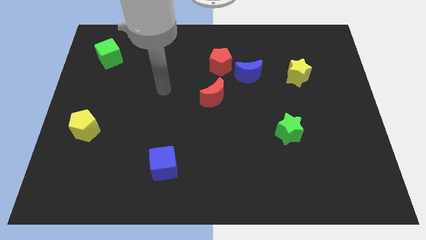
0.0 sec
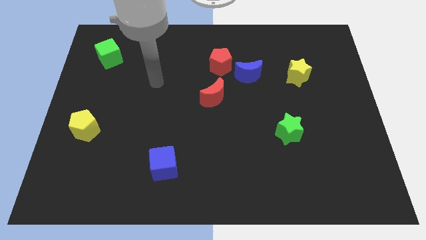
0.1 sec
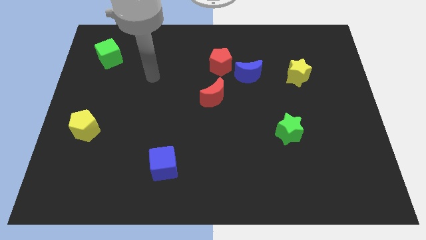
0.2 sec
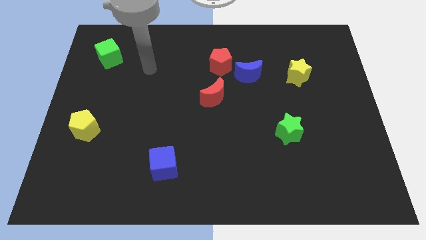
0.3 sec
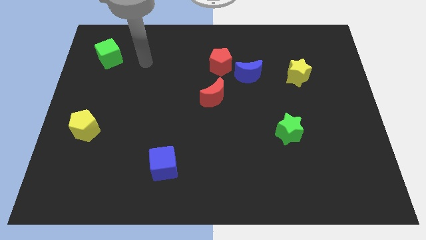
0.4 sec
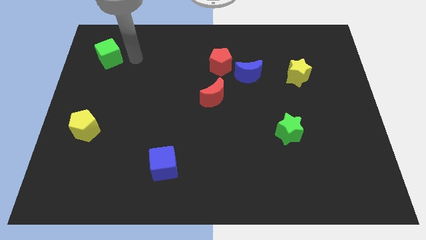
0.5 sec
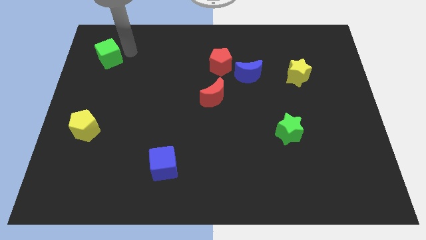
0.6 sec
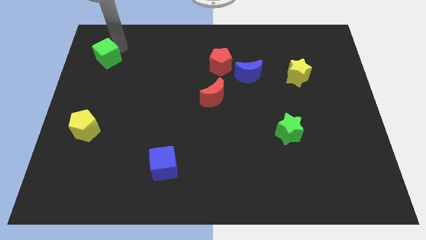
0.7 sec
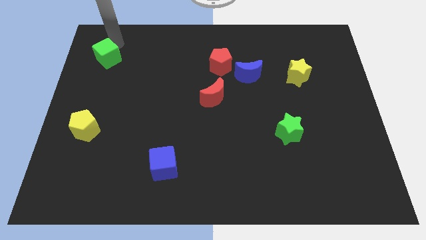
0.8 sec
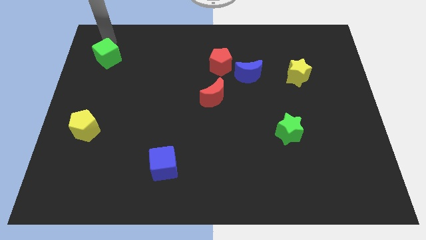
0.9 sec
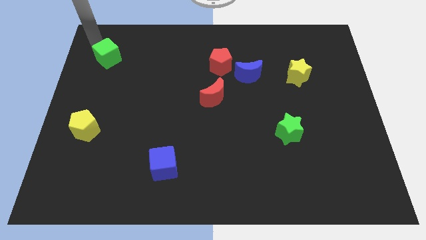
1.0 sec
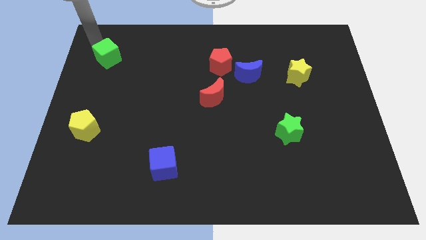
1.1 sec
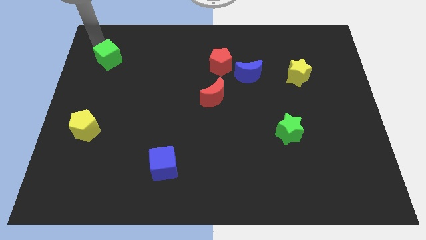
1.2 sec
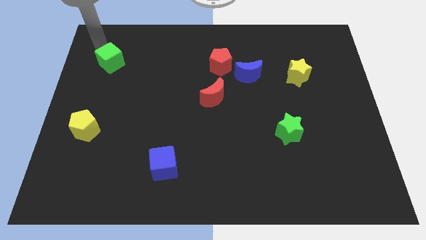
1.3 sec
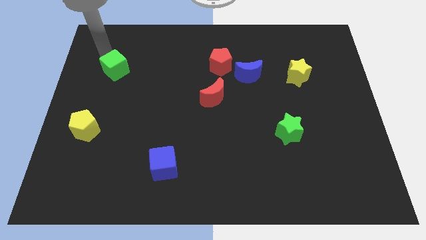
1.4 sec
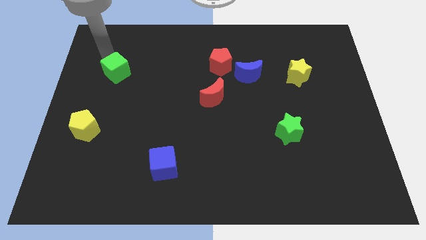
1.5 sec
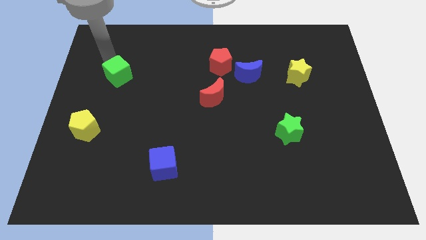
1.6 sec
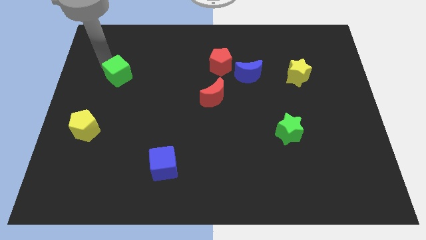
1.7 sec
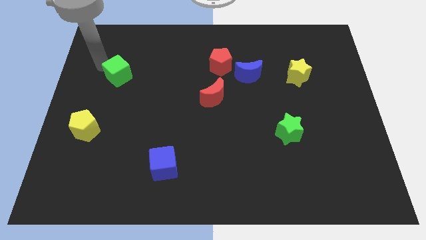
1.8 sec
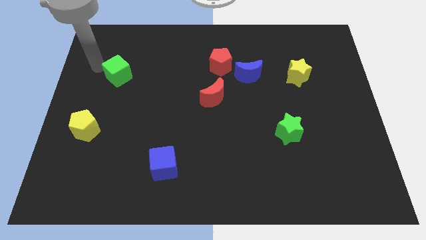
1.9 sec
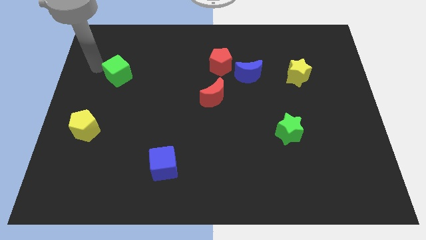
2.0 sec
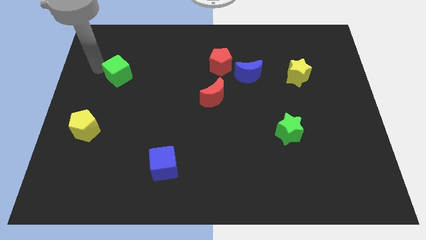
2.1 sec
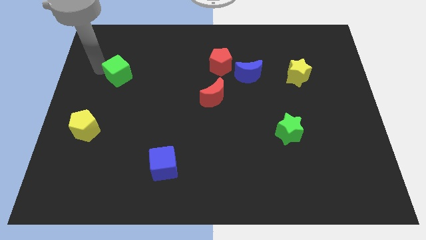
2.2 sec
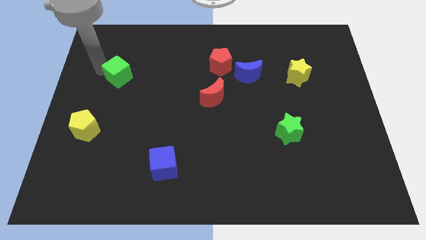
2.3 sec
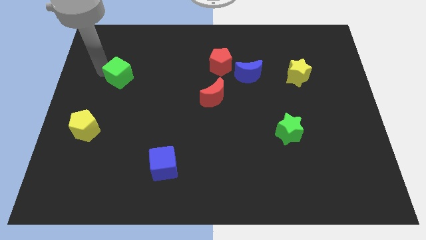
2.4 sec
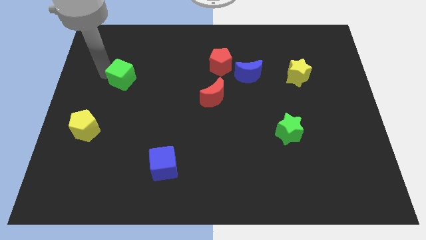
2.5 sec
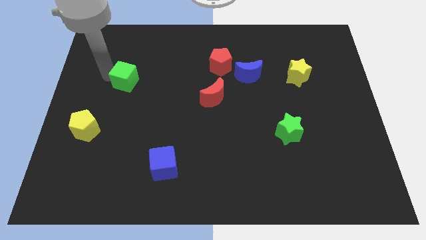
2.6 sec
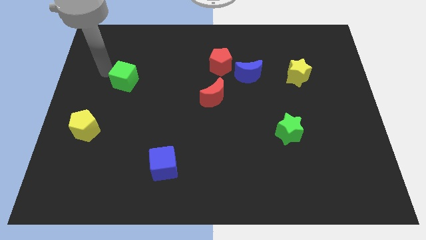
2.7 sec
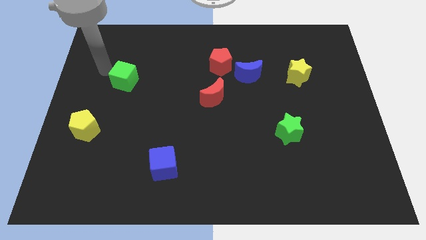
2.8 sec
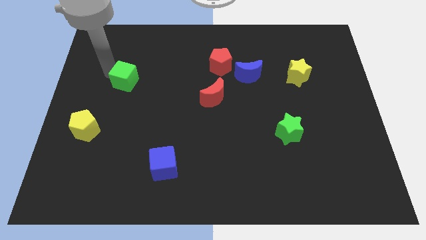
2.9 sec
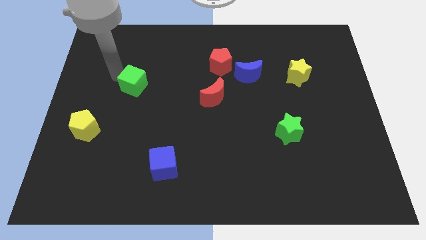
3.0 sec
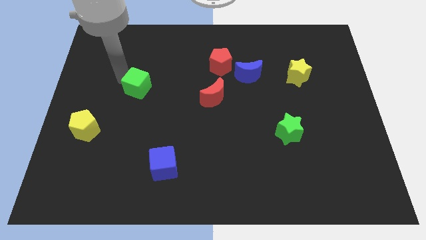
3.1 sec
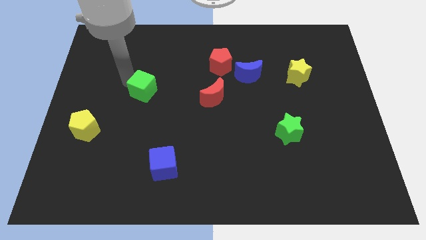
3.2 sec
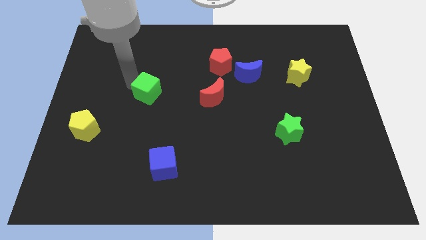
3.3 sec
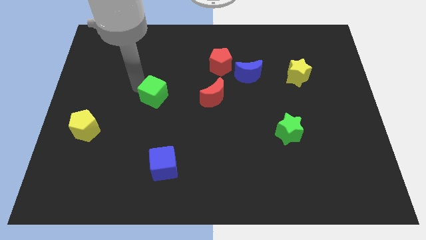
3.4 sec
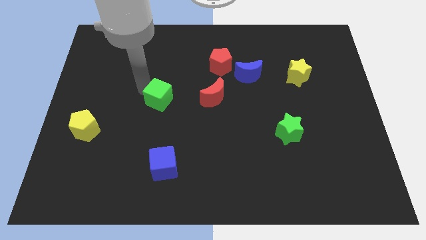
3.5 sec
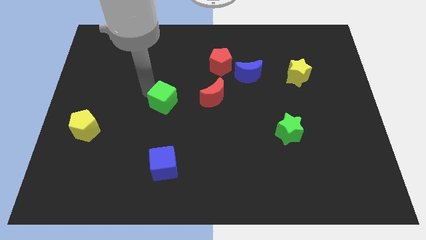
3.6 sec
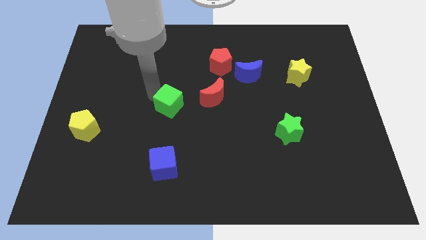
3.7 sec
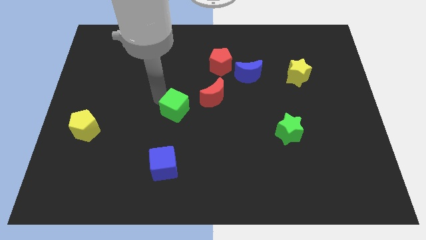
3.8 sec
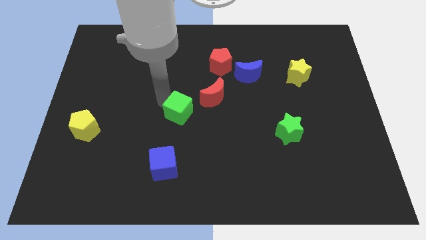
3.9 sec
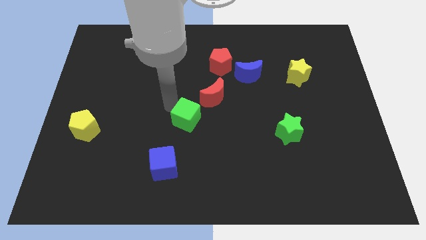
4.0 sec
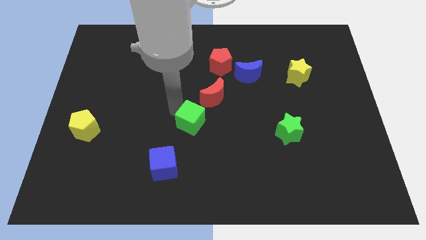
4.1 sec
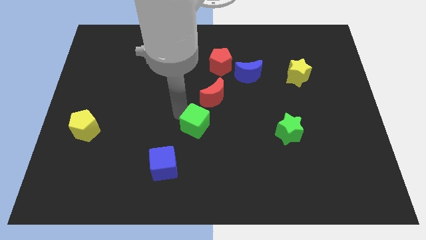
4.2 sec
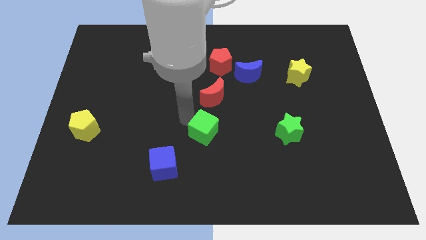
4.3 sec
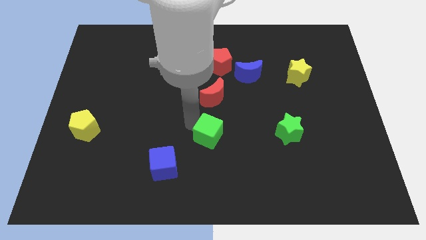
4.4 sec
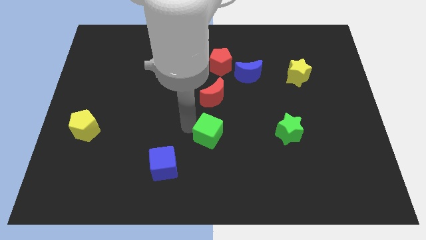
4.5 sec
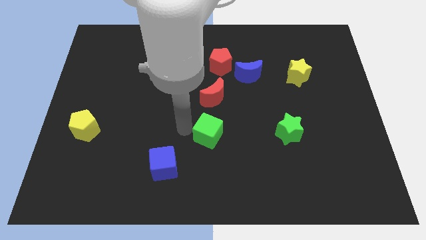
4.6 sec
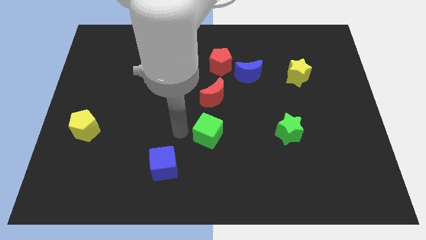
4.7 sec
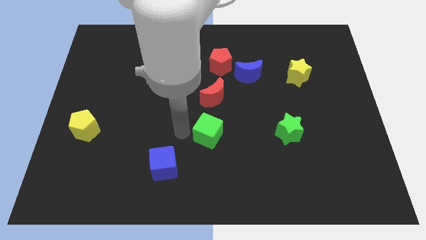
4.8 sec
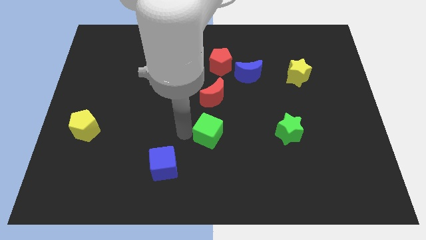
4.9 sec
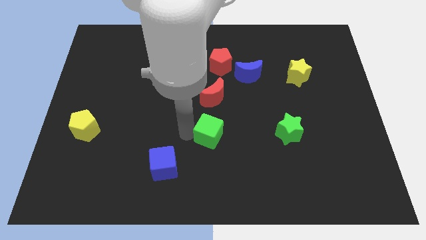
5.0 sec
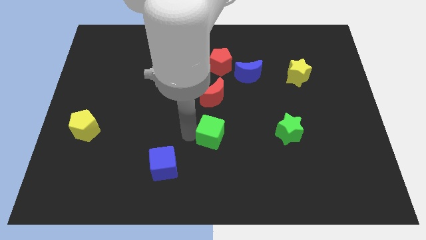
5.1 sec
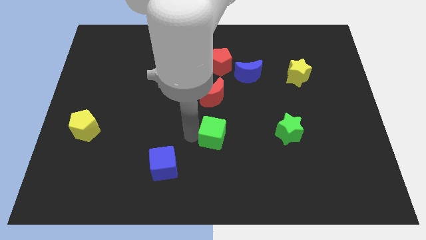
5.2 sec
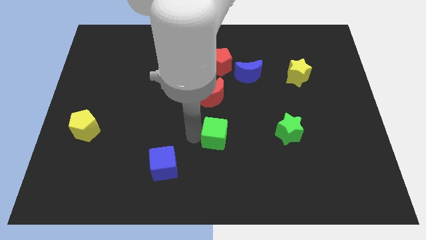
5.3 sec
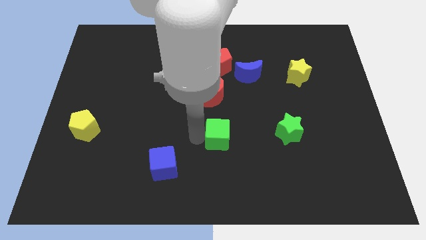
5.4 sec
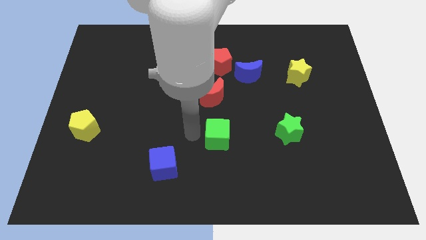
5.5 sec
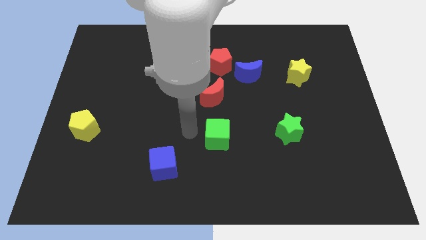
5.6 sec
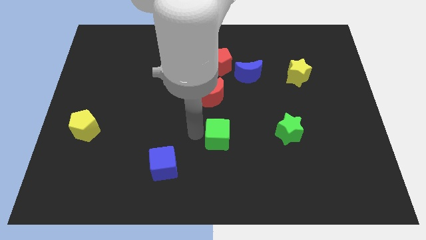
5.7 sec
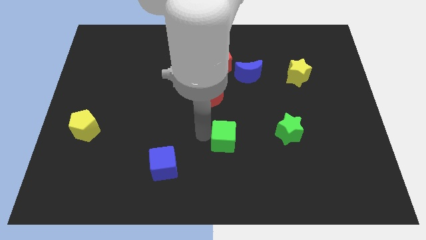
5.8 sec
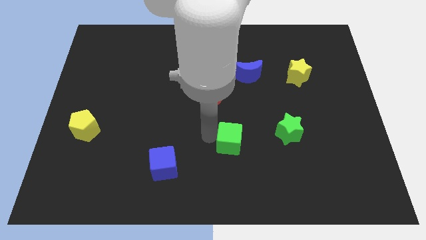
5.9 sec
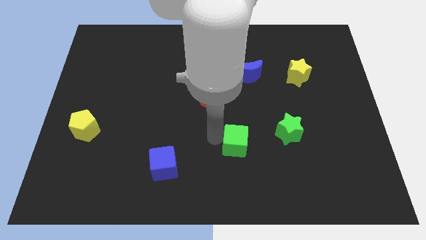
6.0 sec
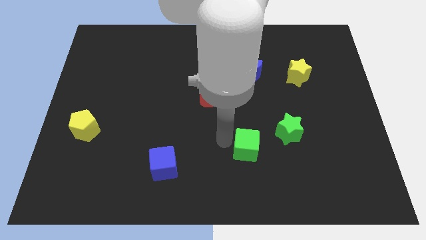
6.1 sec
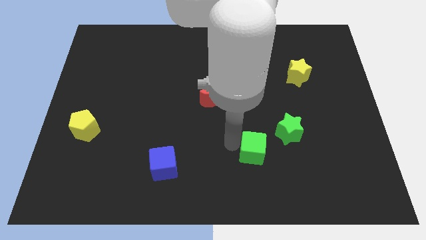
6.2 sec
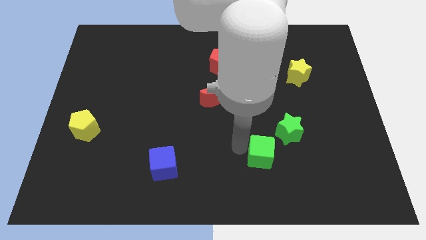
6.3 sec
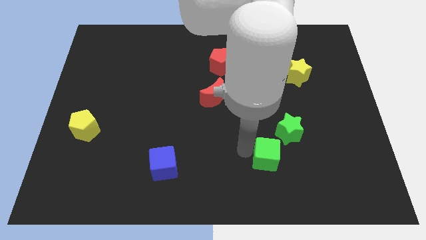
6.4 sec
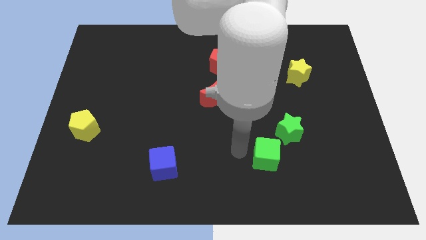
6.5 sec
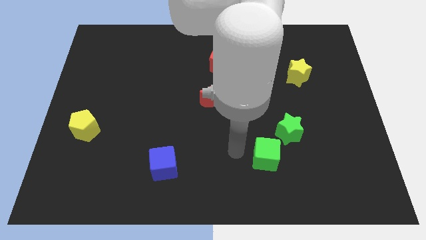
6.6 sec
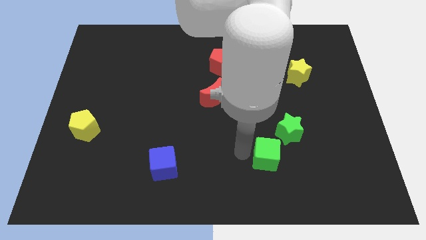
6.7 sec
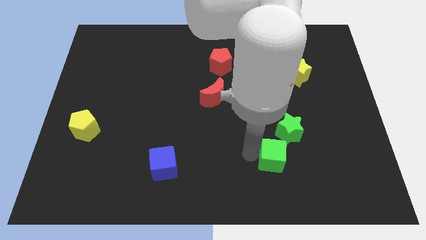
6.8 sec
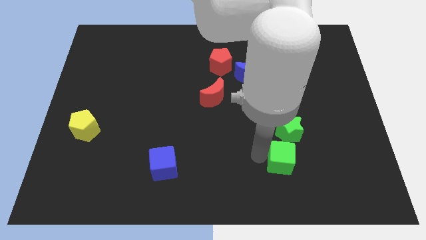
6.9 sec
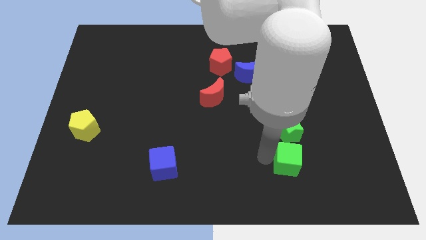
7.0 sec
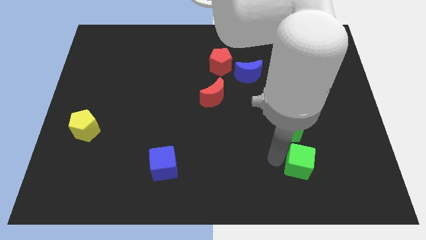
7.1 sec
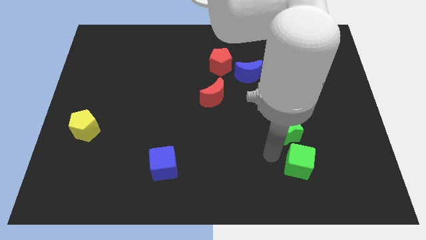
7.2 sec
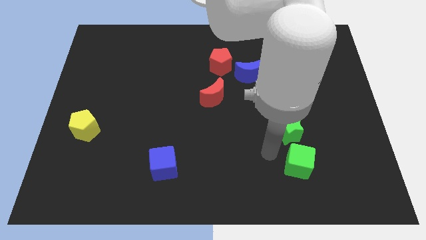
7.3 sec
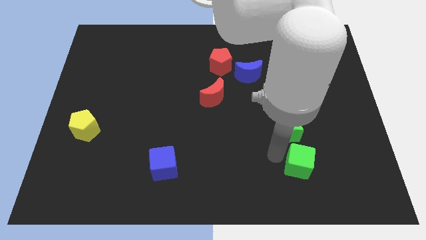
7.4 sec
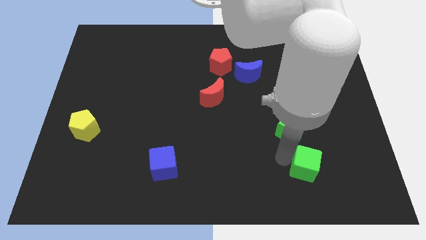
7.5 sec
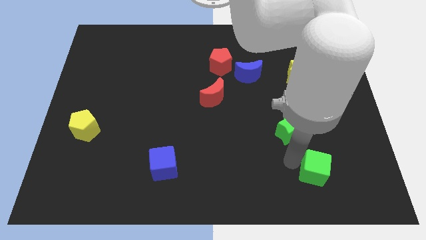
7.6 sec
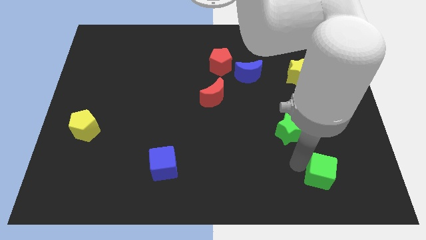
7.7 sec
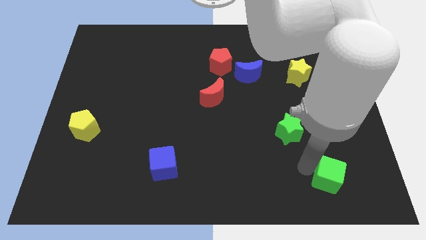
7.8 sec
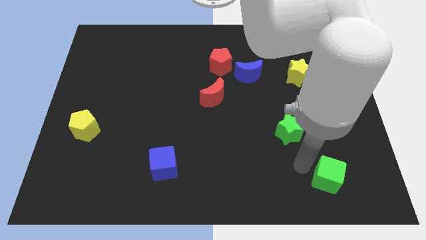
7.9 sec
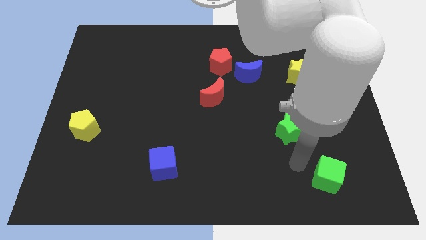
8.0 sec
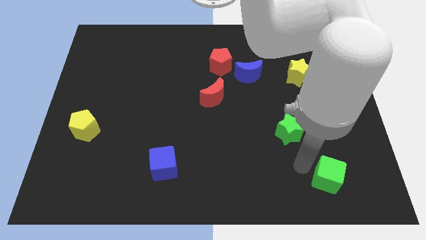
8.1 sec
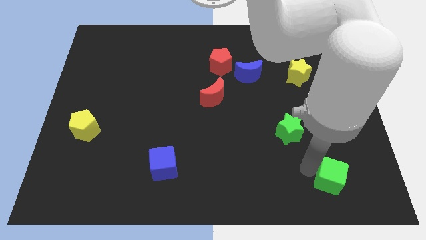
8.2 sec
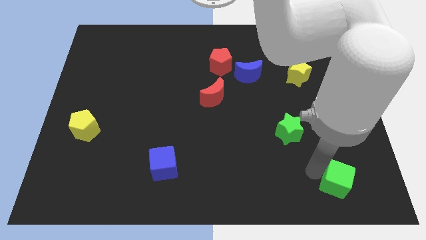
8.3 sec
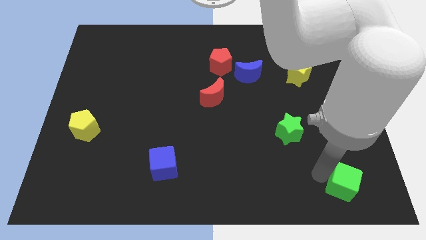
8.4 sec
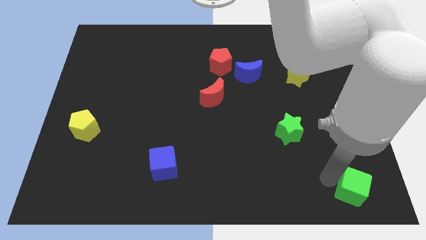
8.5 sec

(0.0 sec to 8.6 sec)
push the green cube to the lower right corner
